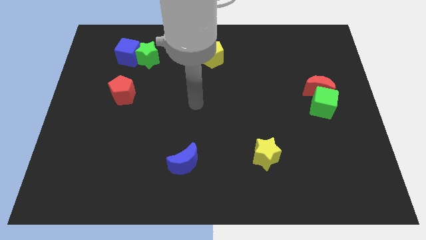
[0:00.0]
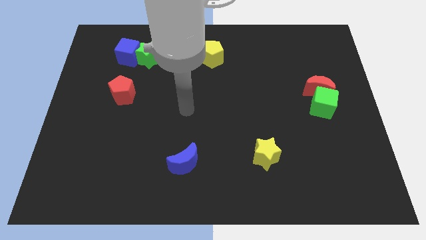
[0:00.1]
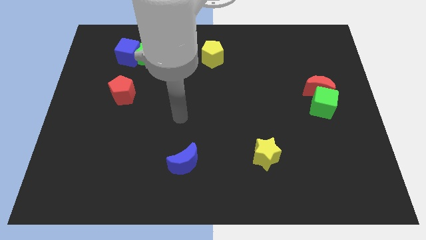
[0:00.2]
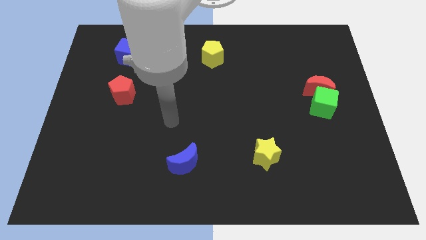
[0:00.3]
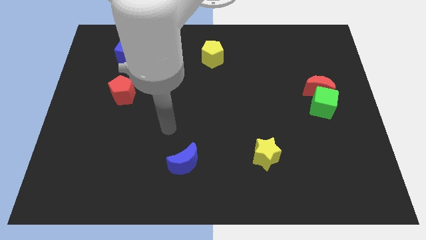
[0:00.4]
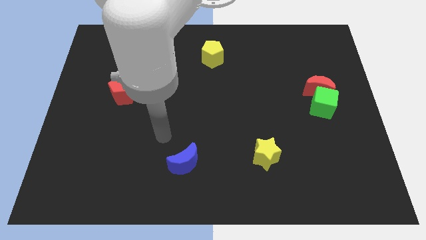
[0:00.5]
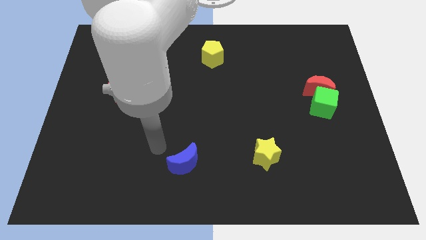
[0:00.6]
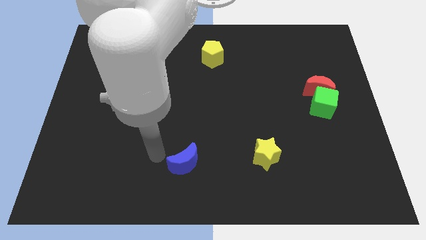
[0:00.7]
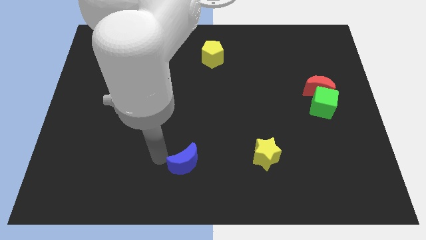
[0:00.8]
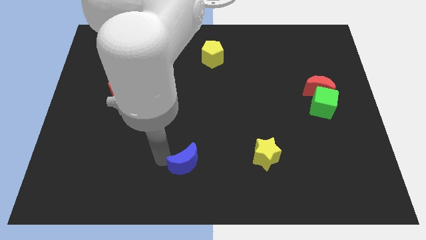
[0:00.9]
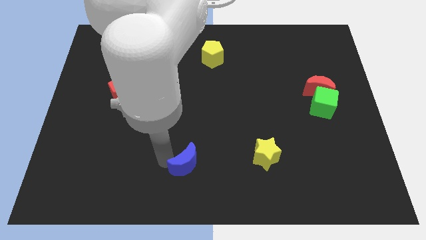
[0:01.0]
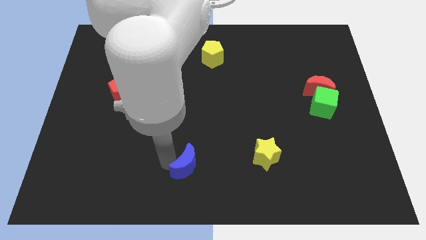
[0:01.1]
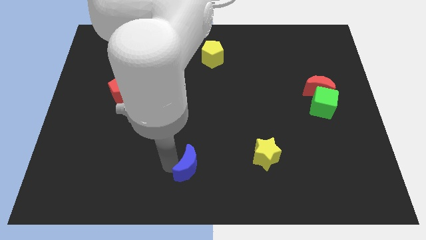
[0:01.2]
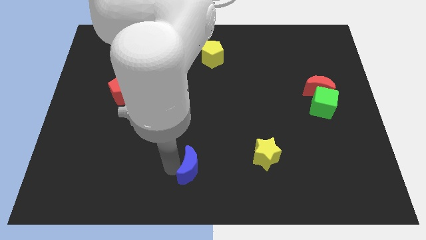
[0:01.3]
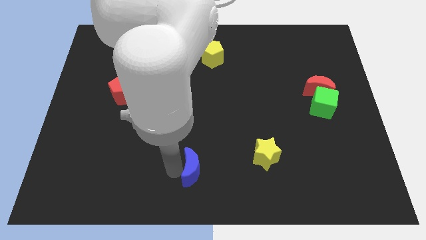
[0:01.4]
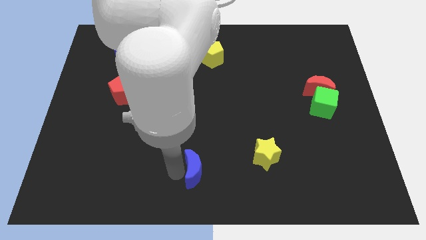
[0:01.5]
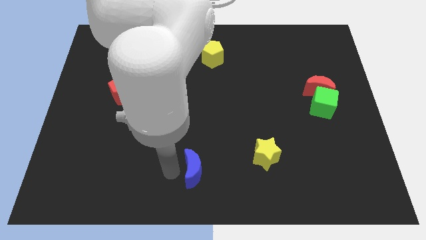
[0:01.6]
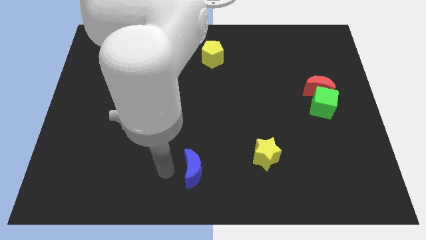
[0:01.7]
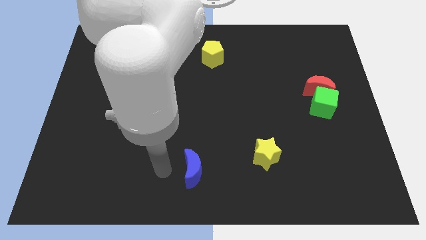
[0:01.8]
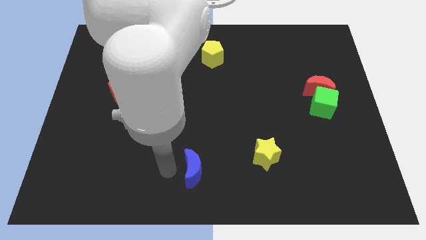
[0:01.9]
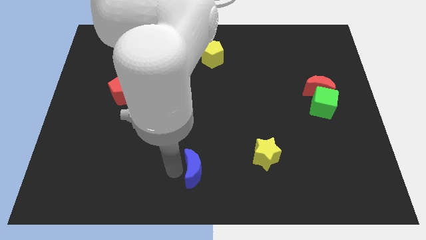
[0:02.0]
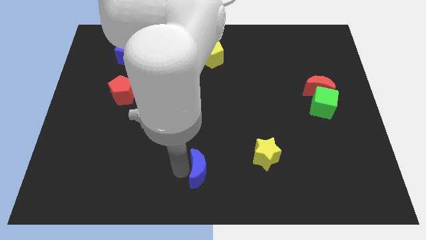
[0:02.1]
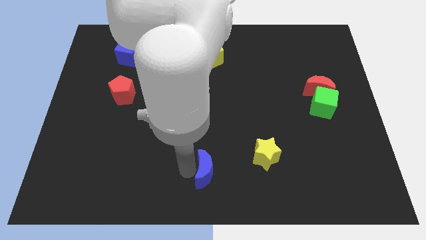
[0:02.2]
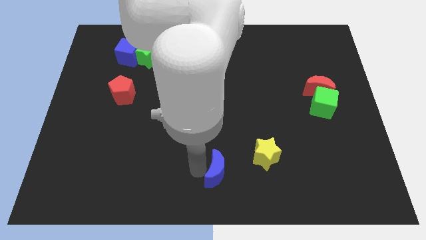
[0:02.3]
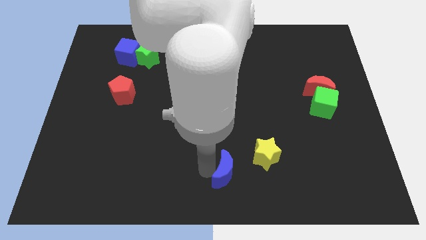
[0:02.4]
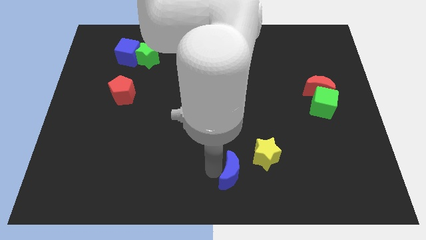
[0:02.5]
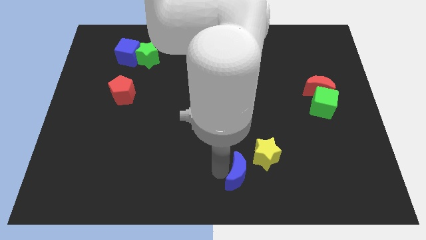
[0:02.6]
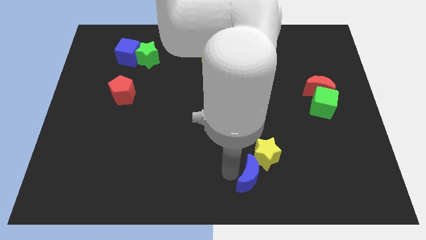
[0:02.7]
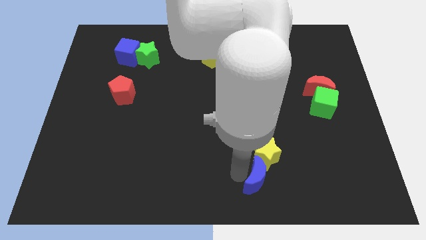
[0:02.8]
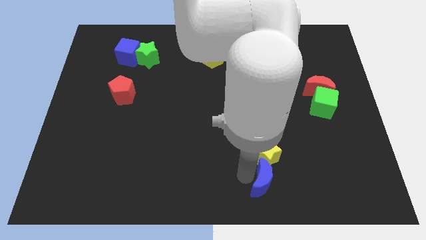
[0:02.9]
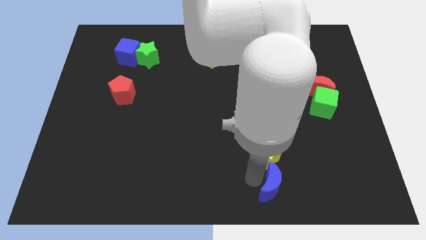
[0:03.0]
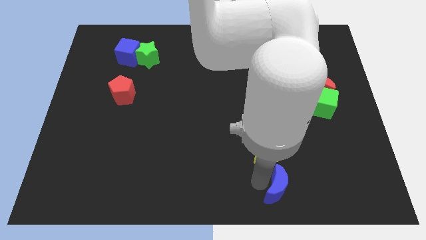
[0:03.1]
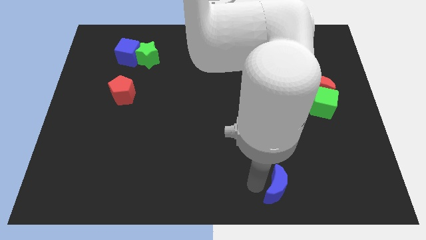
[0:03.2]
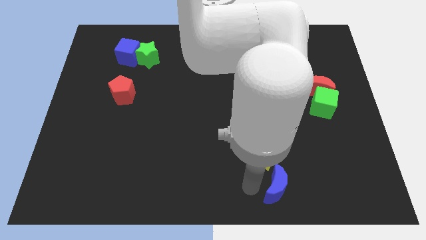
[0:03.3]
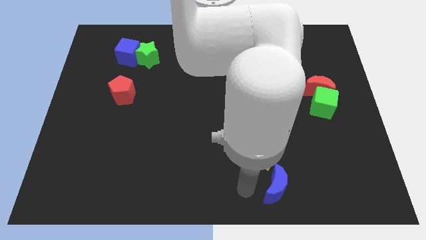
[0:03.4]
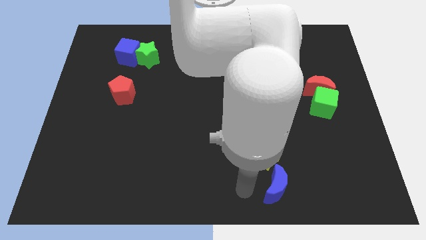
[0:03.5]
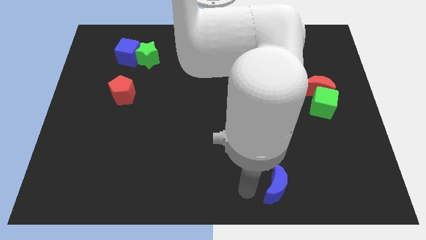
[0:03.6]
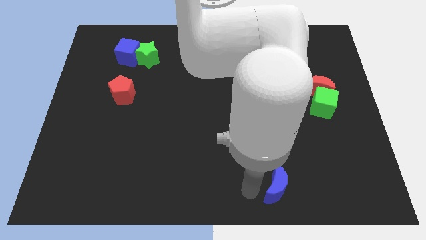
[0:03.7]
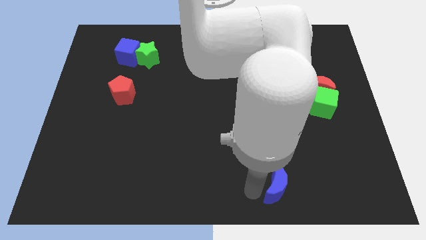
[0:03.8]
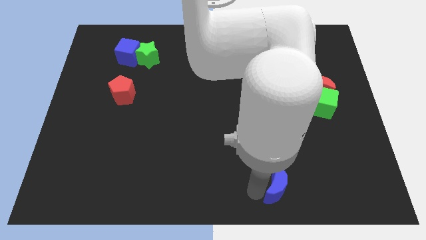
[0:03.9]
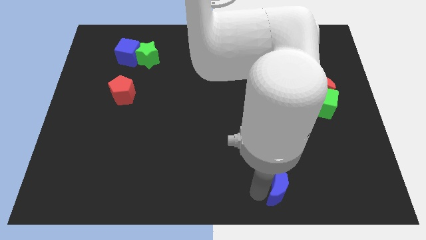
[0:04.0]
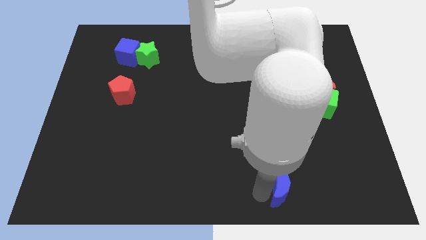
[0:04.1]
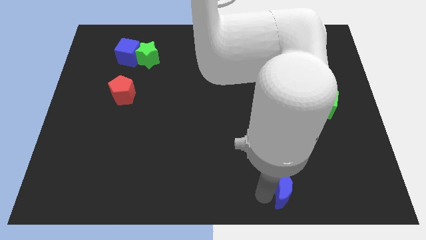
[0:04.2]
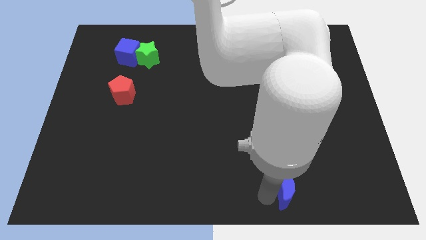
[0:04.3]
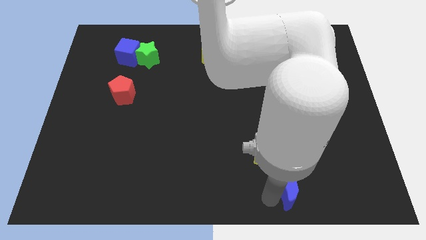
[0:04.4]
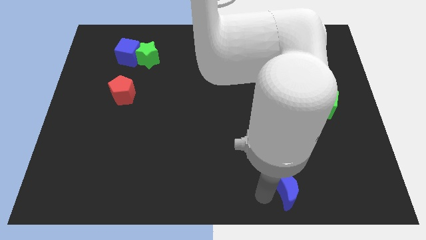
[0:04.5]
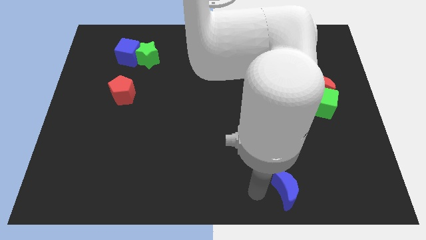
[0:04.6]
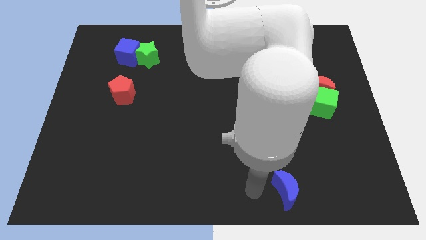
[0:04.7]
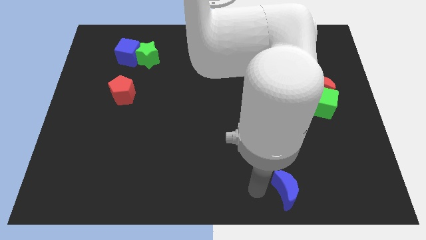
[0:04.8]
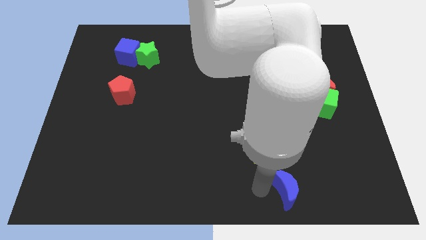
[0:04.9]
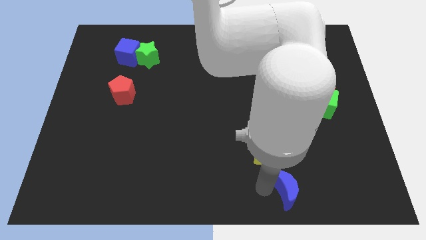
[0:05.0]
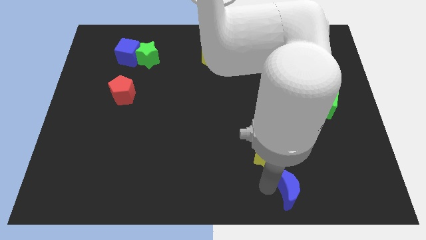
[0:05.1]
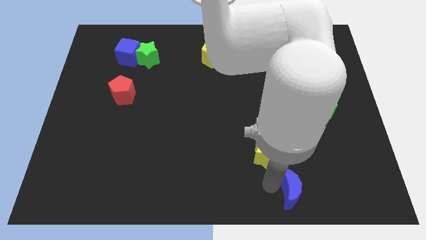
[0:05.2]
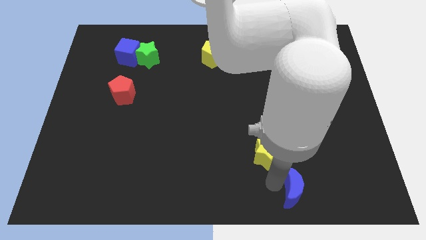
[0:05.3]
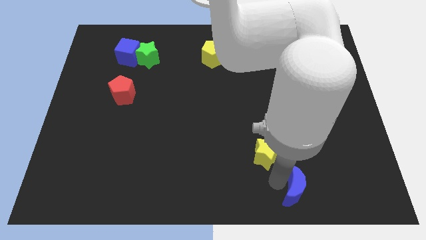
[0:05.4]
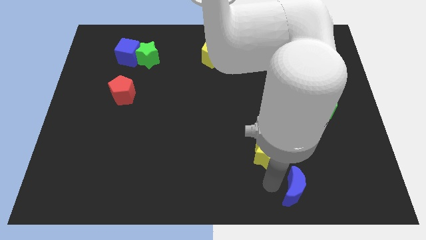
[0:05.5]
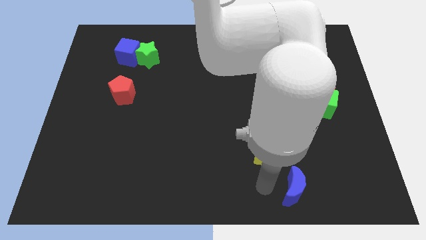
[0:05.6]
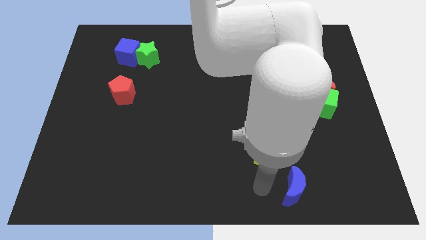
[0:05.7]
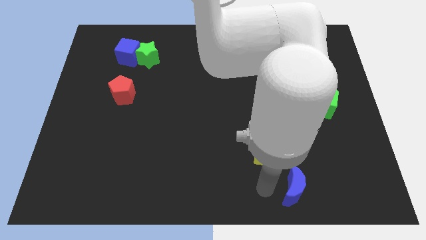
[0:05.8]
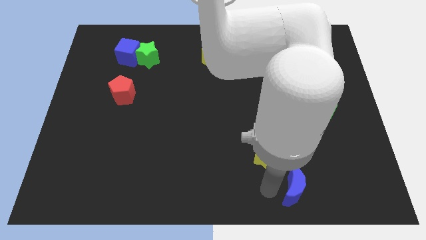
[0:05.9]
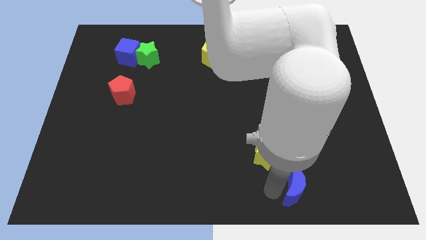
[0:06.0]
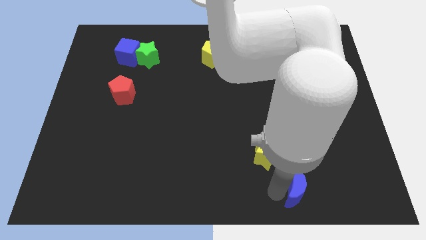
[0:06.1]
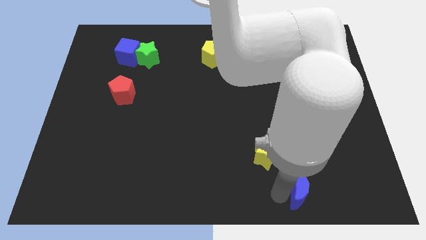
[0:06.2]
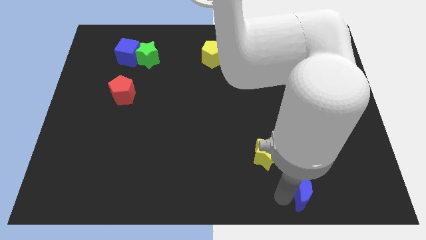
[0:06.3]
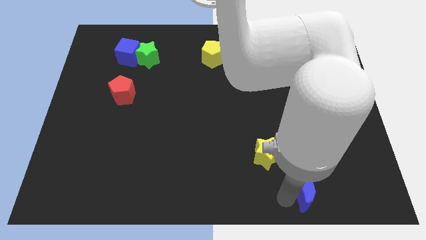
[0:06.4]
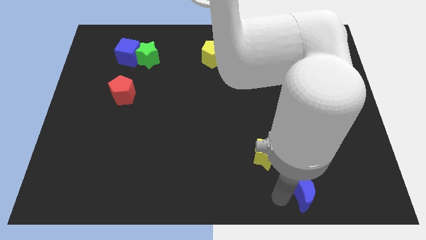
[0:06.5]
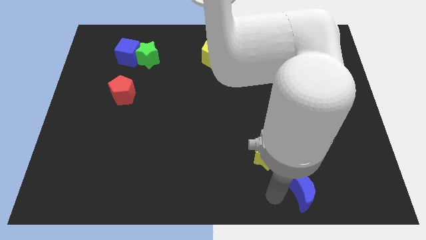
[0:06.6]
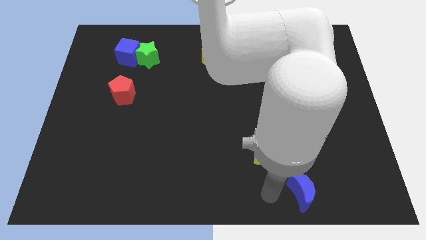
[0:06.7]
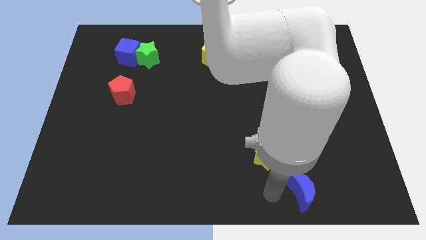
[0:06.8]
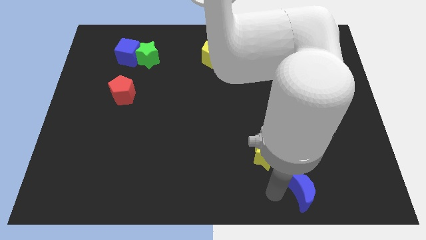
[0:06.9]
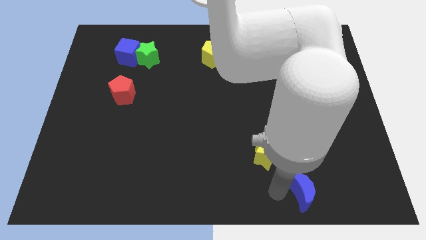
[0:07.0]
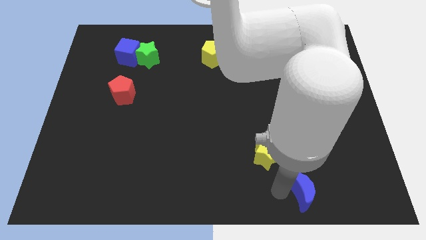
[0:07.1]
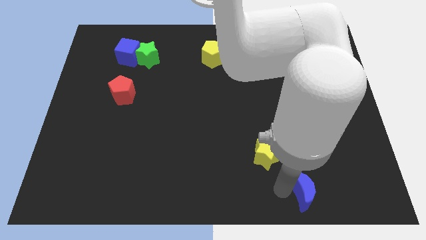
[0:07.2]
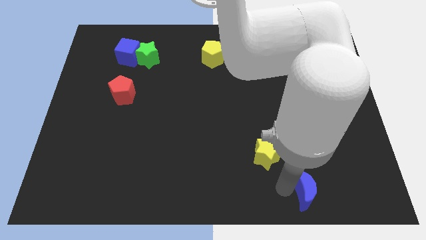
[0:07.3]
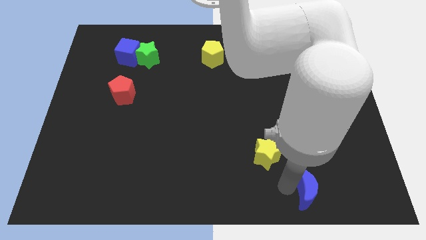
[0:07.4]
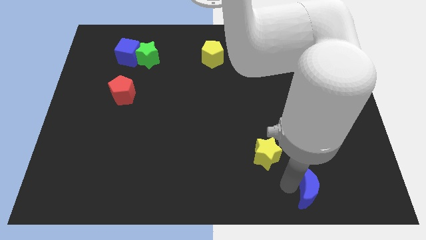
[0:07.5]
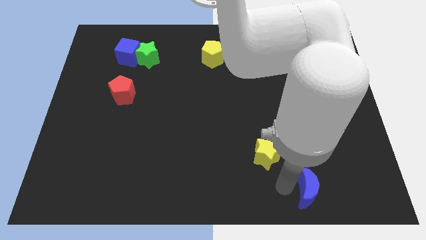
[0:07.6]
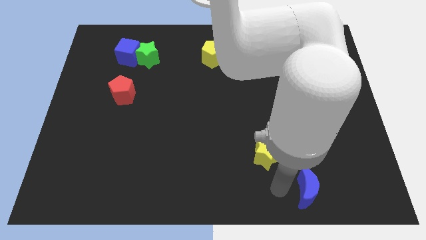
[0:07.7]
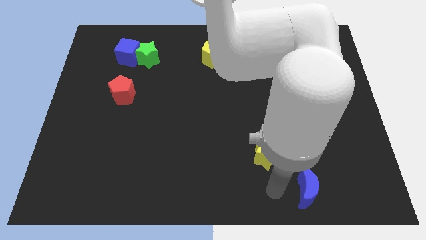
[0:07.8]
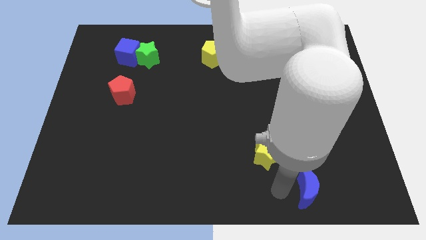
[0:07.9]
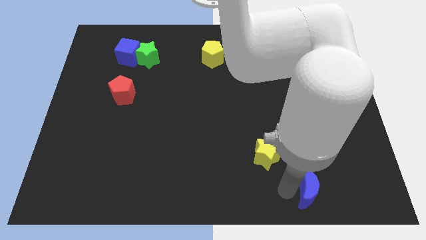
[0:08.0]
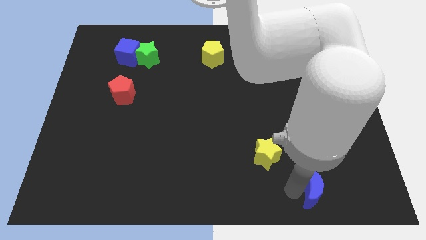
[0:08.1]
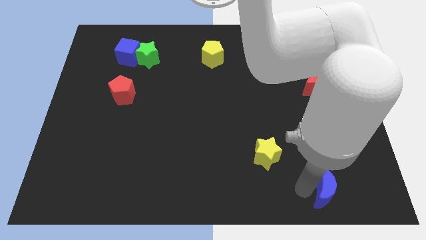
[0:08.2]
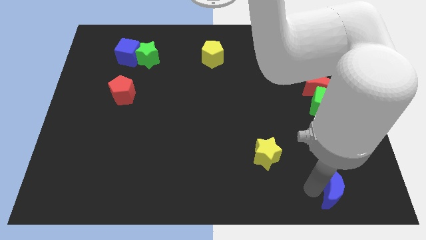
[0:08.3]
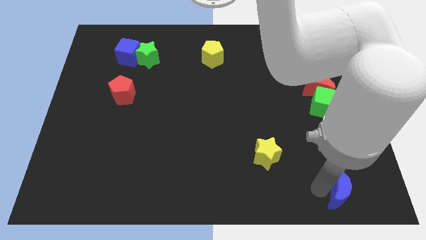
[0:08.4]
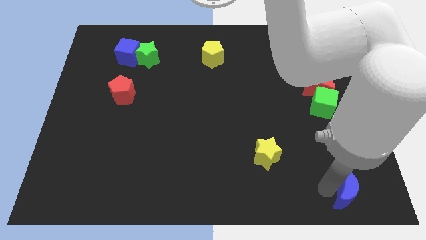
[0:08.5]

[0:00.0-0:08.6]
put the blue moon to the bottom right
